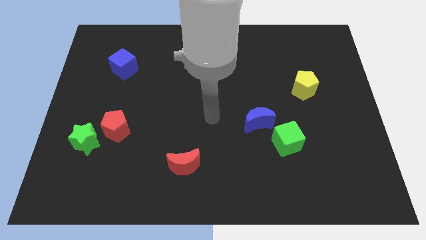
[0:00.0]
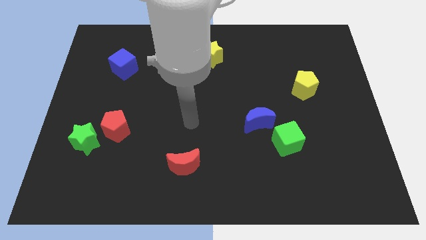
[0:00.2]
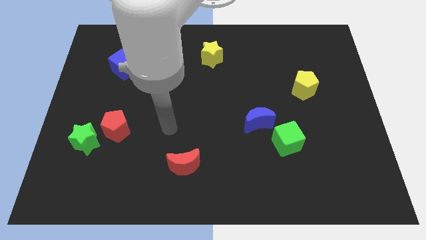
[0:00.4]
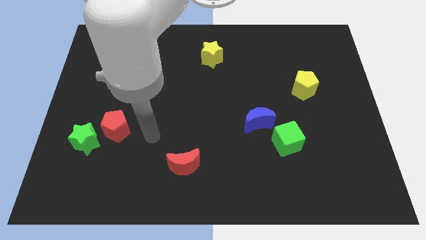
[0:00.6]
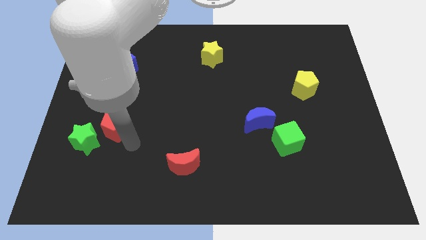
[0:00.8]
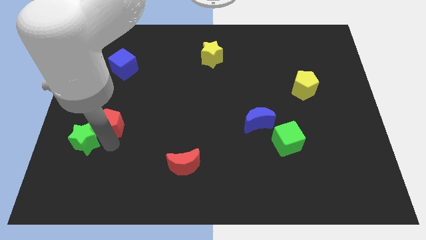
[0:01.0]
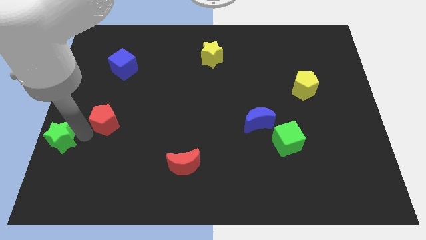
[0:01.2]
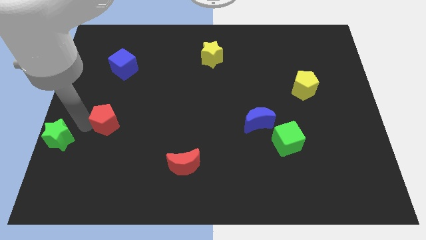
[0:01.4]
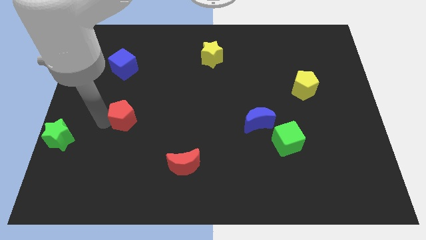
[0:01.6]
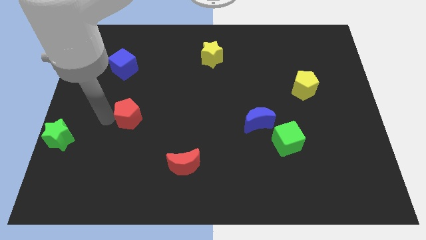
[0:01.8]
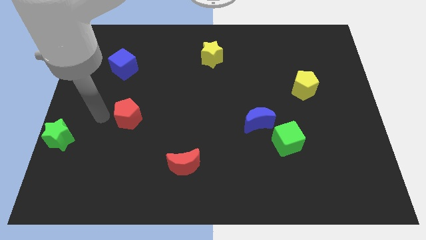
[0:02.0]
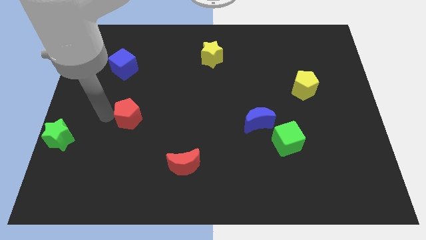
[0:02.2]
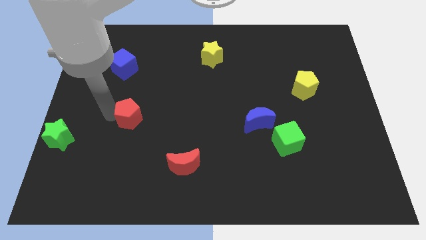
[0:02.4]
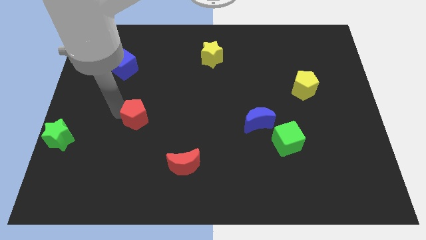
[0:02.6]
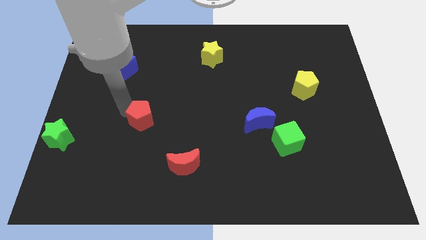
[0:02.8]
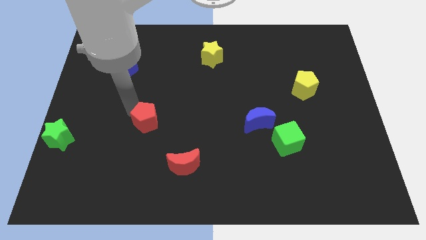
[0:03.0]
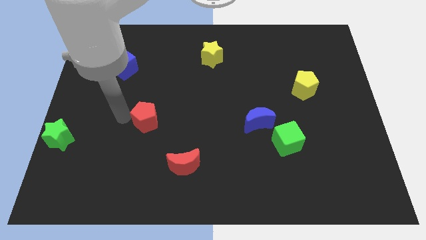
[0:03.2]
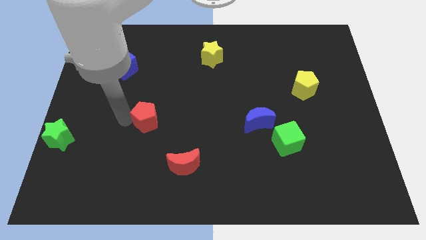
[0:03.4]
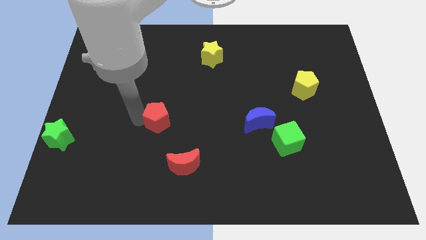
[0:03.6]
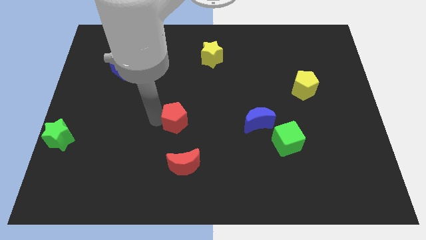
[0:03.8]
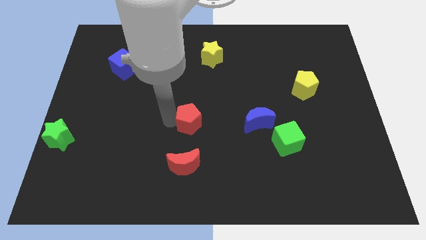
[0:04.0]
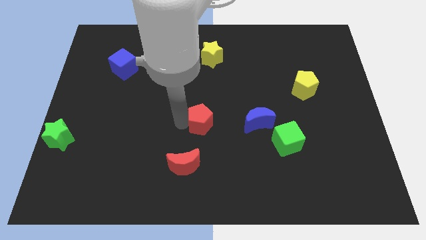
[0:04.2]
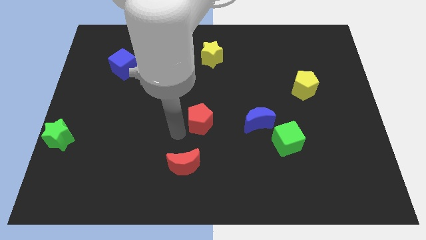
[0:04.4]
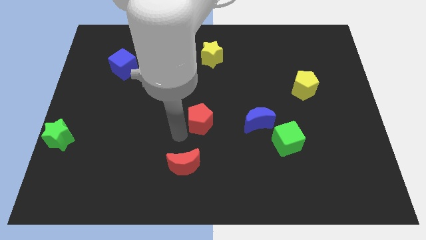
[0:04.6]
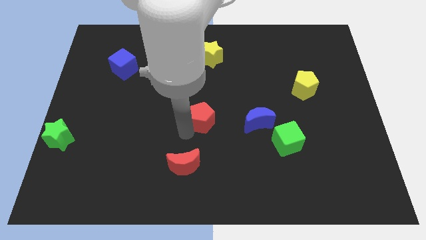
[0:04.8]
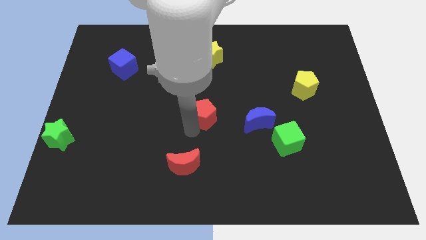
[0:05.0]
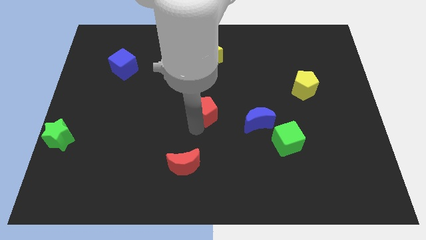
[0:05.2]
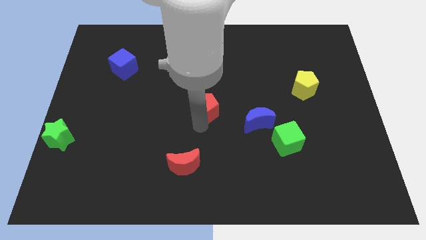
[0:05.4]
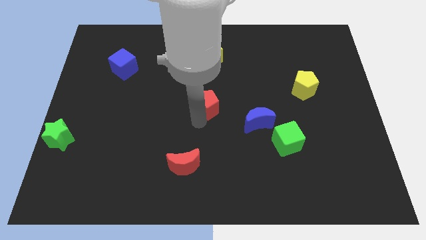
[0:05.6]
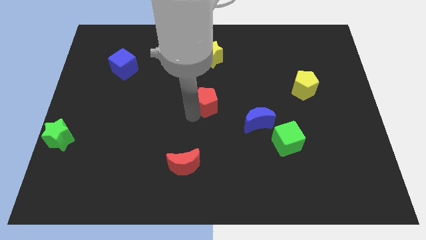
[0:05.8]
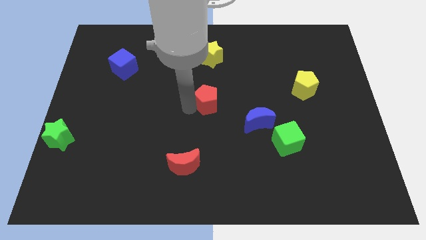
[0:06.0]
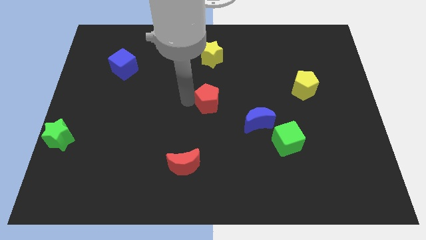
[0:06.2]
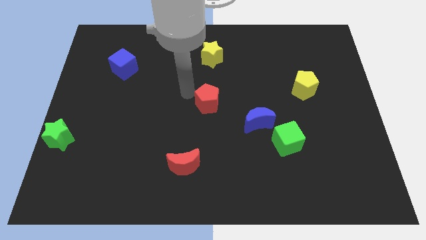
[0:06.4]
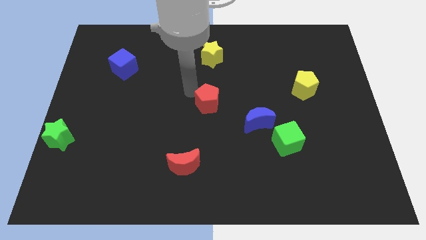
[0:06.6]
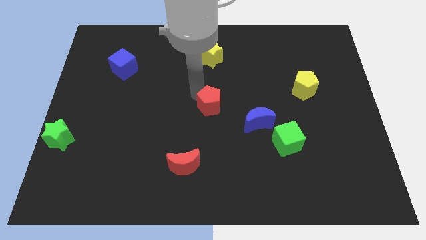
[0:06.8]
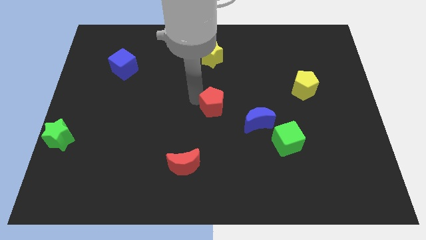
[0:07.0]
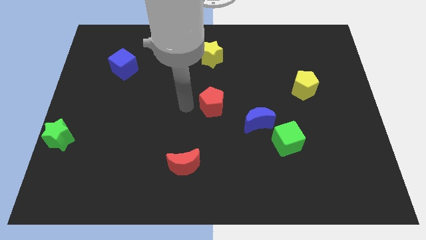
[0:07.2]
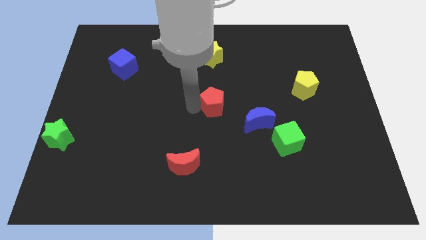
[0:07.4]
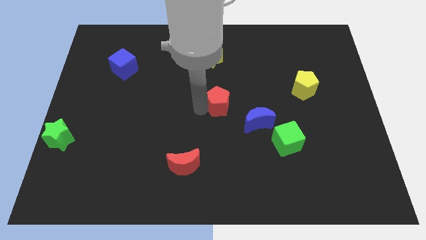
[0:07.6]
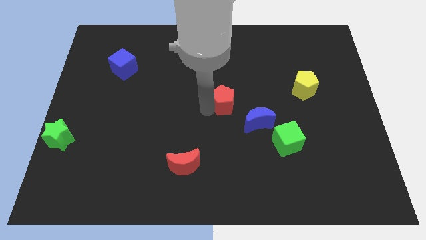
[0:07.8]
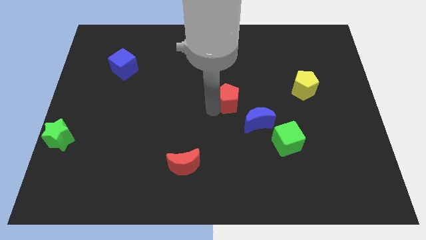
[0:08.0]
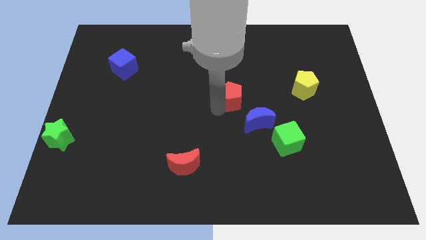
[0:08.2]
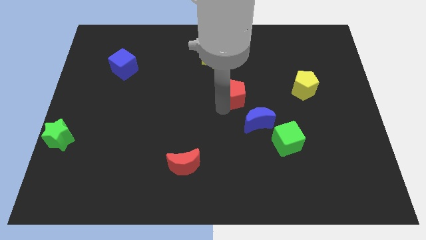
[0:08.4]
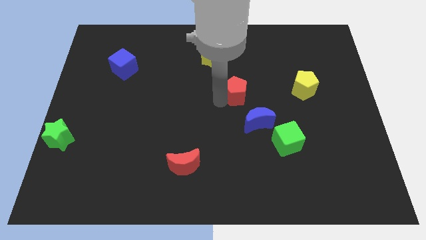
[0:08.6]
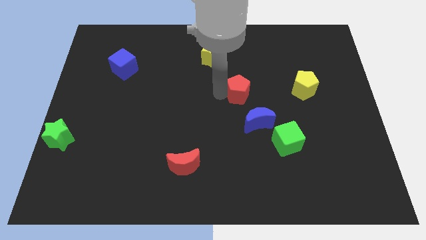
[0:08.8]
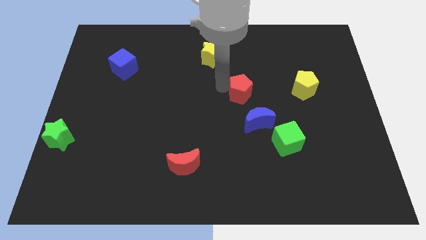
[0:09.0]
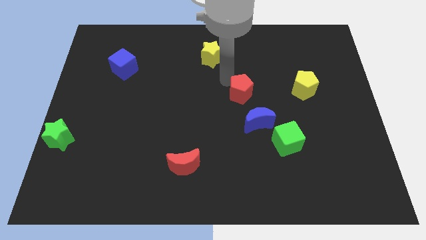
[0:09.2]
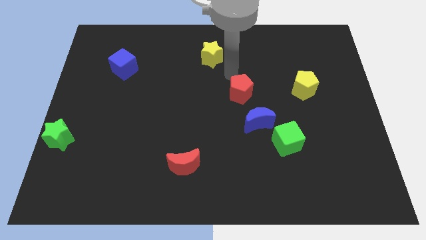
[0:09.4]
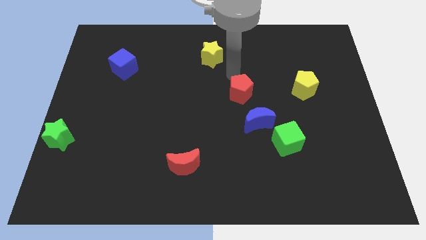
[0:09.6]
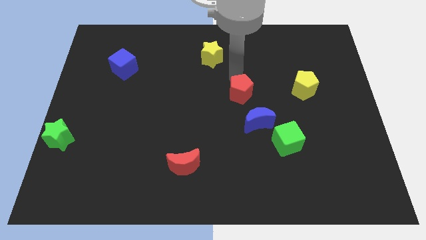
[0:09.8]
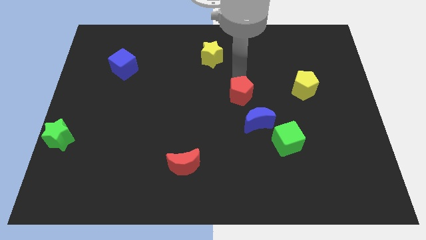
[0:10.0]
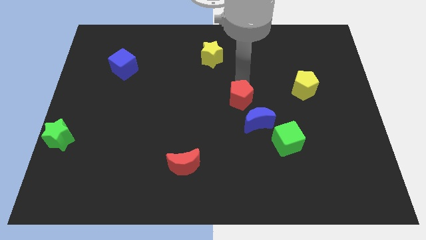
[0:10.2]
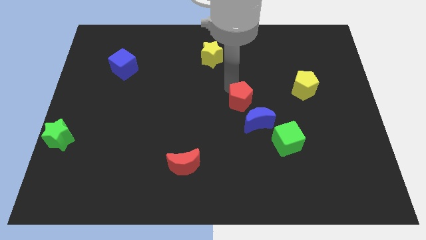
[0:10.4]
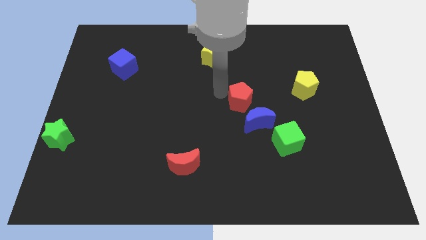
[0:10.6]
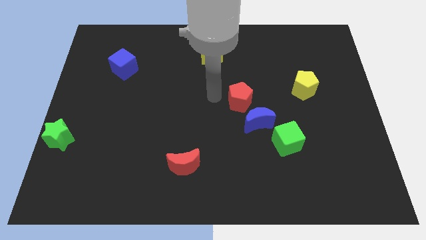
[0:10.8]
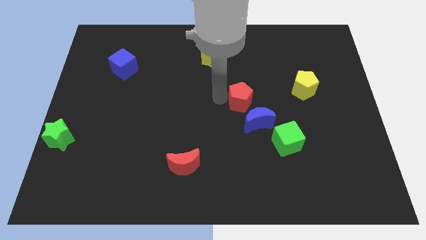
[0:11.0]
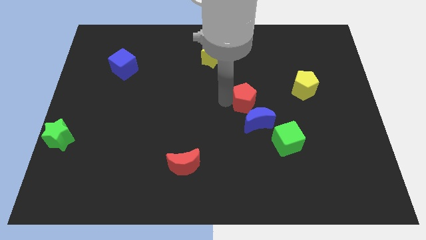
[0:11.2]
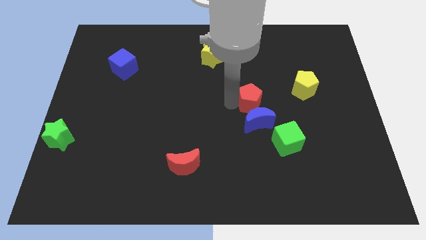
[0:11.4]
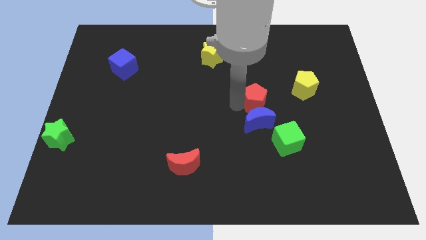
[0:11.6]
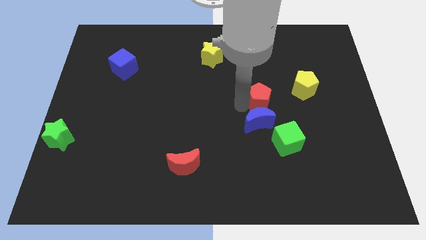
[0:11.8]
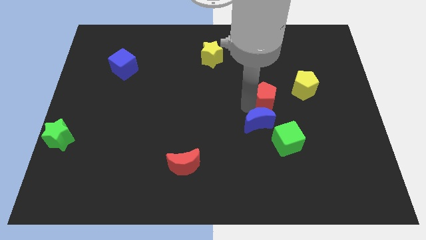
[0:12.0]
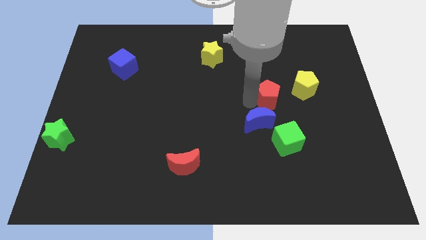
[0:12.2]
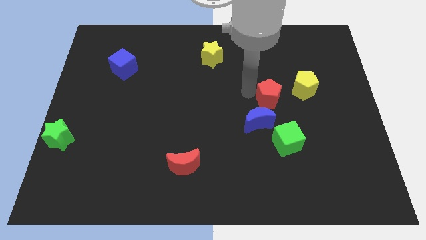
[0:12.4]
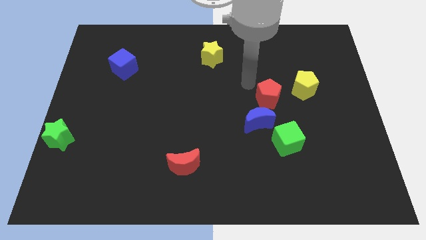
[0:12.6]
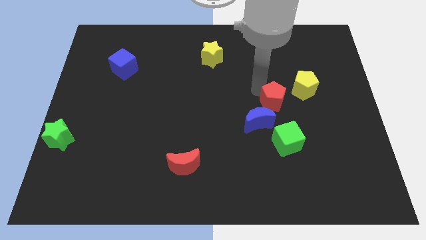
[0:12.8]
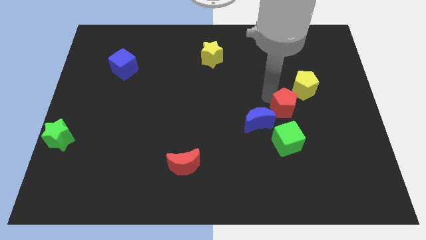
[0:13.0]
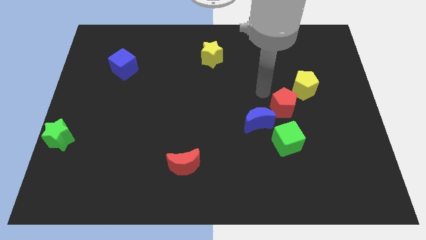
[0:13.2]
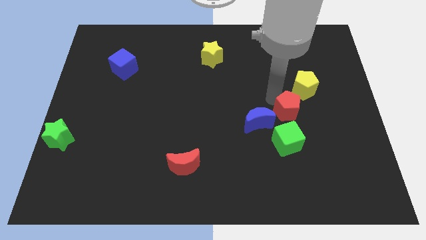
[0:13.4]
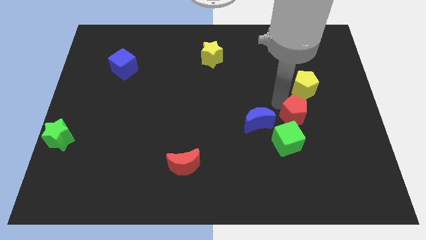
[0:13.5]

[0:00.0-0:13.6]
move the red pentagon to the top right of the green cube

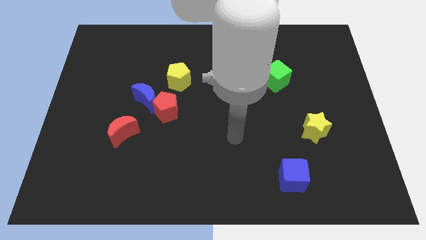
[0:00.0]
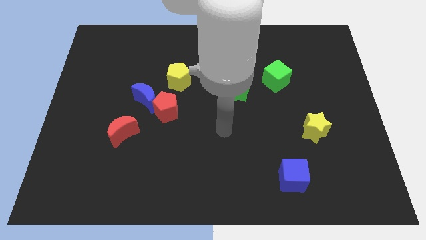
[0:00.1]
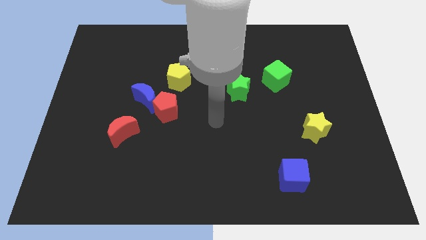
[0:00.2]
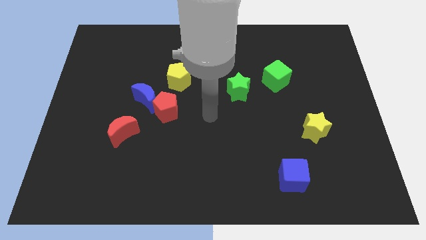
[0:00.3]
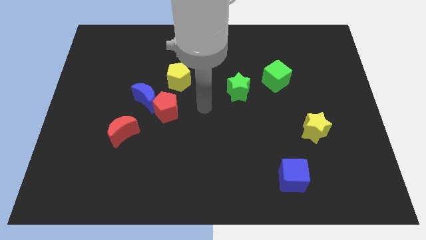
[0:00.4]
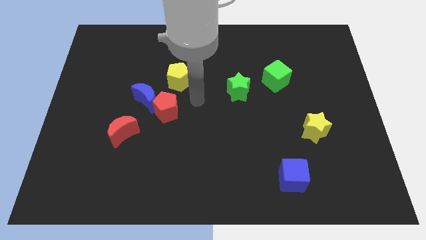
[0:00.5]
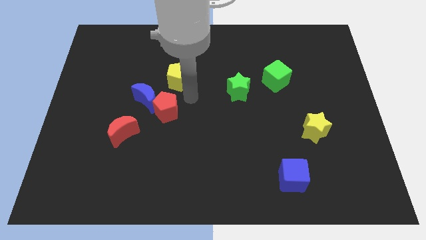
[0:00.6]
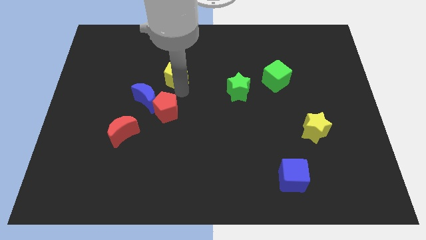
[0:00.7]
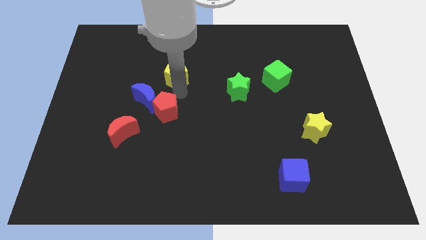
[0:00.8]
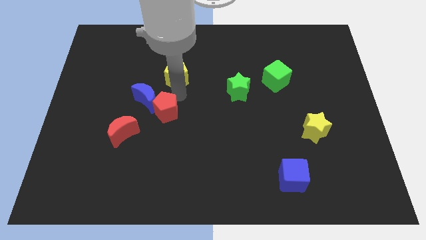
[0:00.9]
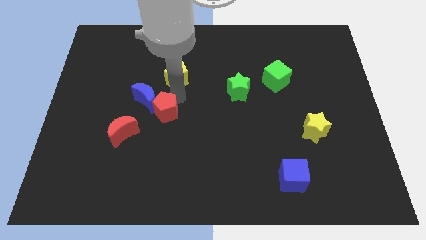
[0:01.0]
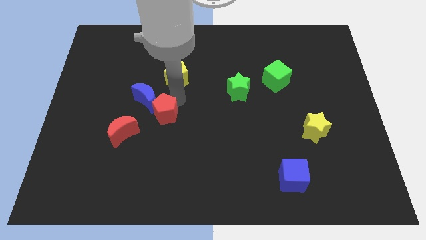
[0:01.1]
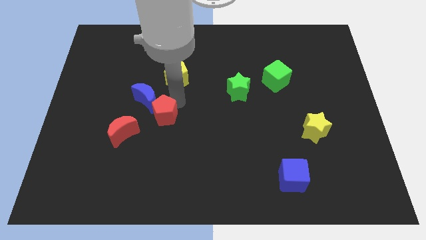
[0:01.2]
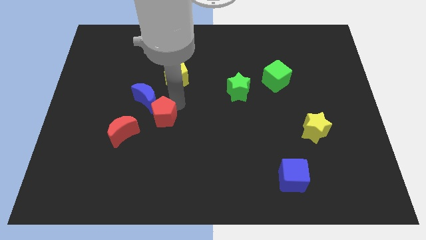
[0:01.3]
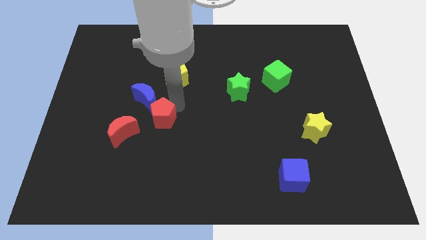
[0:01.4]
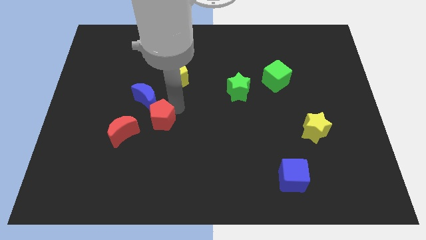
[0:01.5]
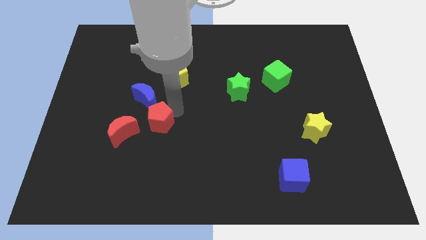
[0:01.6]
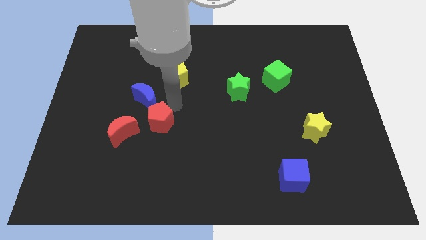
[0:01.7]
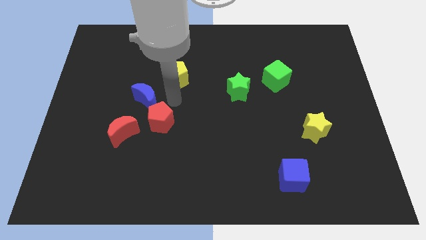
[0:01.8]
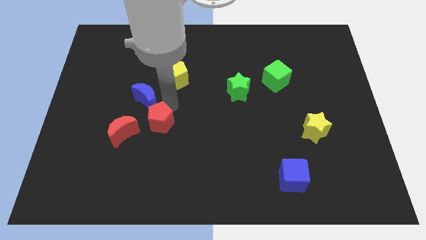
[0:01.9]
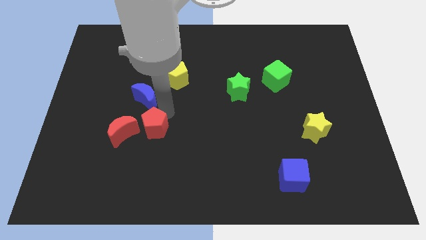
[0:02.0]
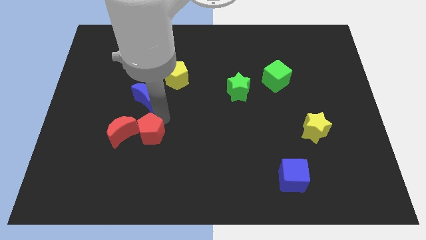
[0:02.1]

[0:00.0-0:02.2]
put the red pentagon to the bottom right of the red moon
